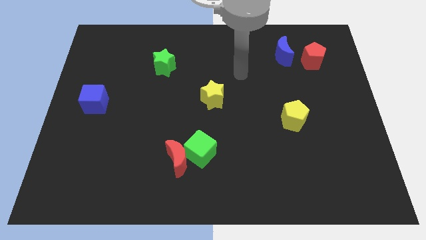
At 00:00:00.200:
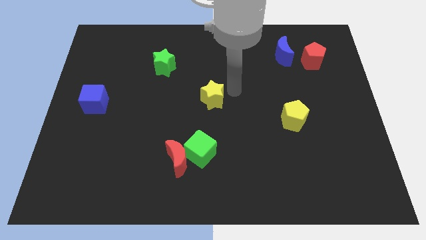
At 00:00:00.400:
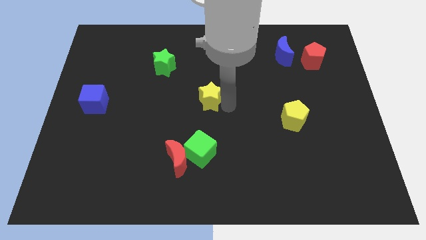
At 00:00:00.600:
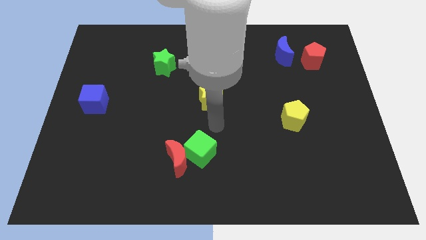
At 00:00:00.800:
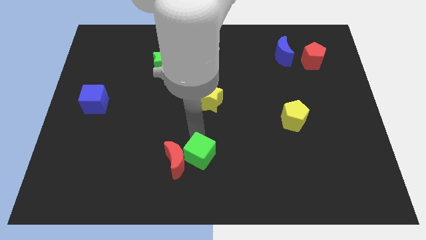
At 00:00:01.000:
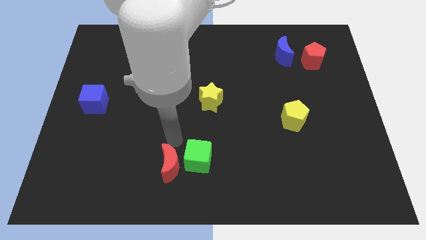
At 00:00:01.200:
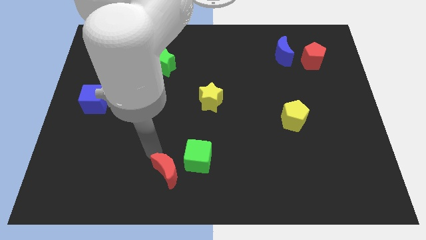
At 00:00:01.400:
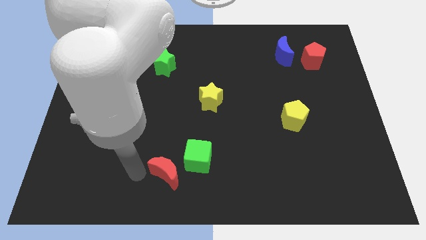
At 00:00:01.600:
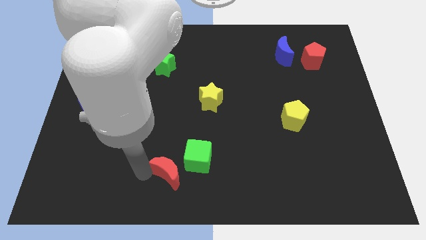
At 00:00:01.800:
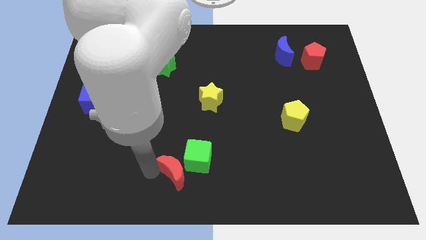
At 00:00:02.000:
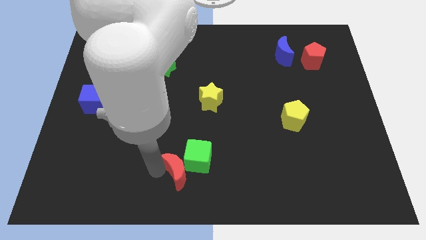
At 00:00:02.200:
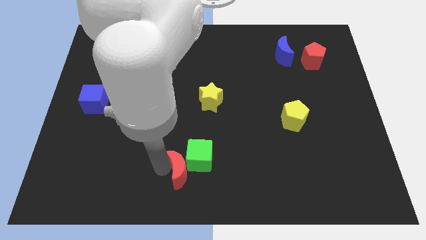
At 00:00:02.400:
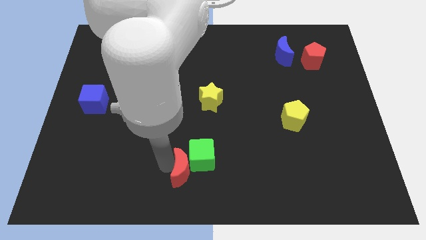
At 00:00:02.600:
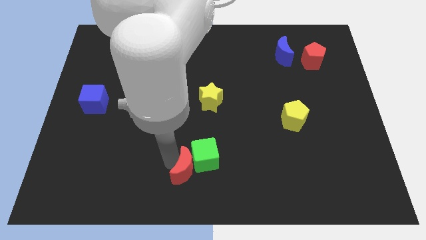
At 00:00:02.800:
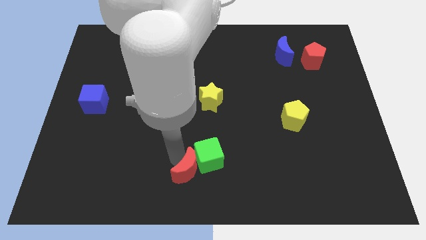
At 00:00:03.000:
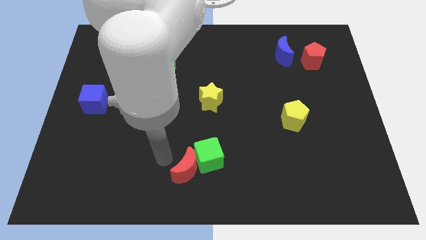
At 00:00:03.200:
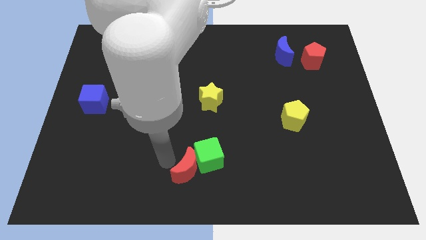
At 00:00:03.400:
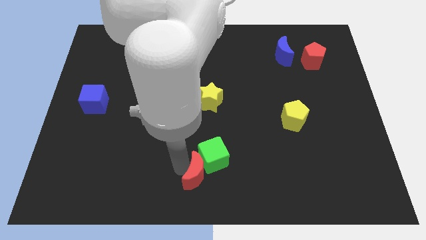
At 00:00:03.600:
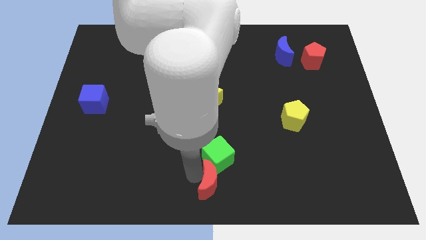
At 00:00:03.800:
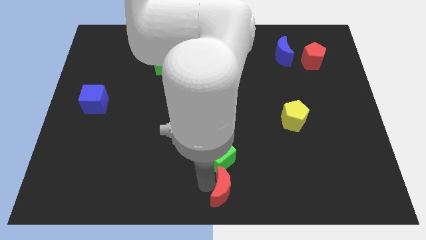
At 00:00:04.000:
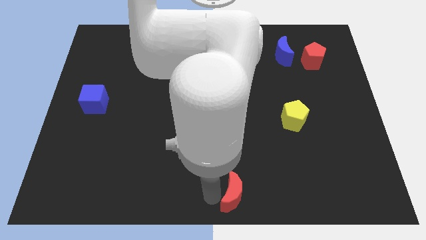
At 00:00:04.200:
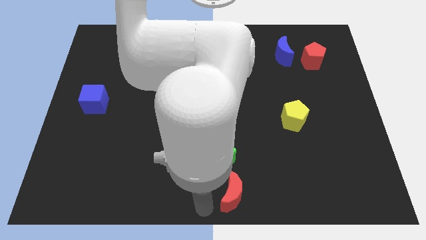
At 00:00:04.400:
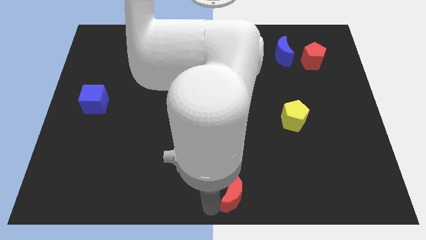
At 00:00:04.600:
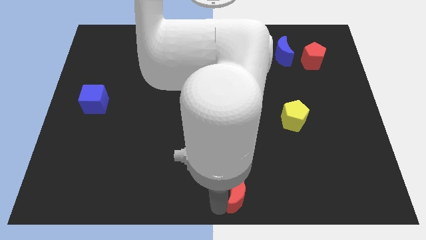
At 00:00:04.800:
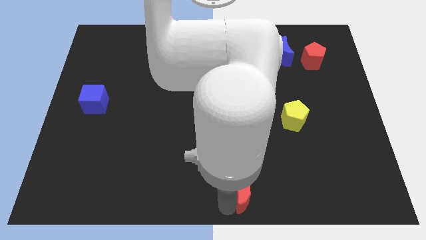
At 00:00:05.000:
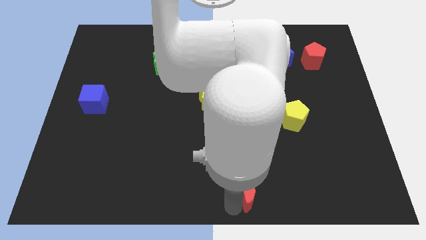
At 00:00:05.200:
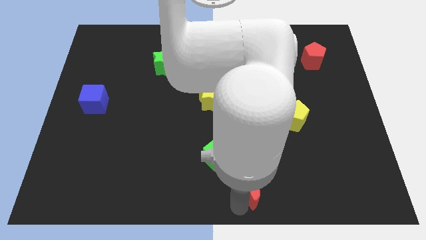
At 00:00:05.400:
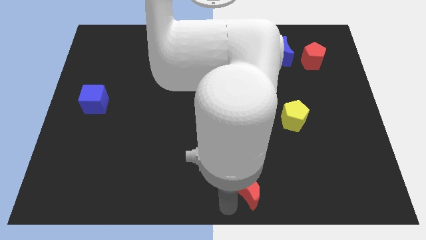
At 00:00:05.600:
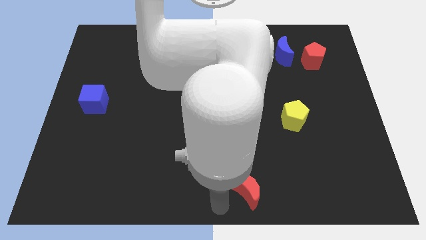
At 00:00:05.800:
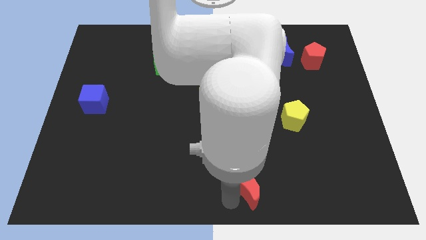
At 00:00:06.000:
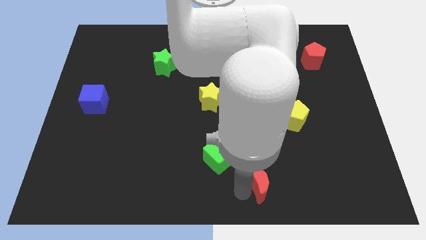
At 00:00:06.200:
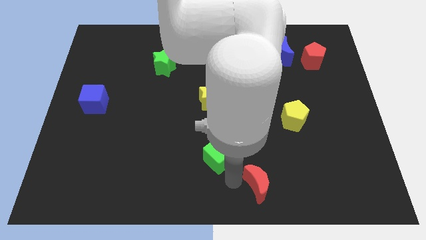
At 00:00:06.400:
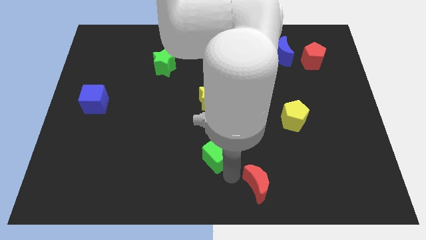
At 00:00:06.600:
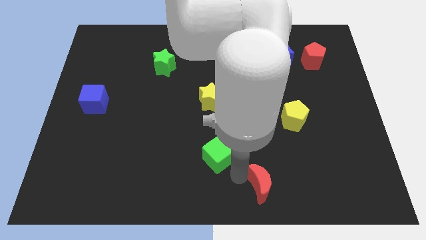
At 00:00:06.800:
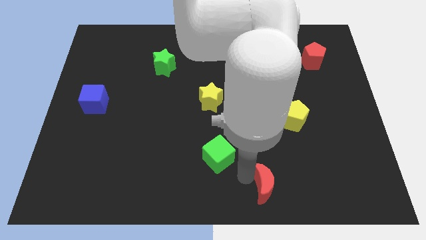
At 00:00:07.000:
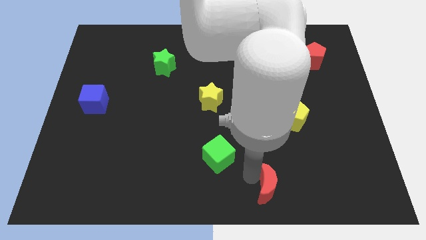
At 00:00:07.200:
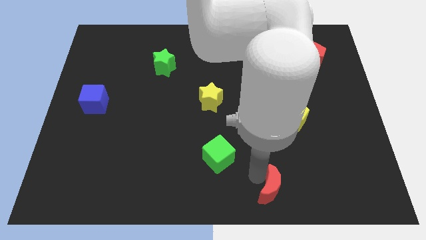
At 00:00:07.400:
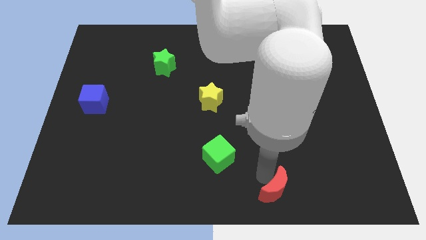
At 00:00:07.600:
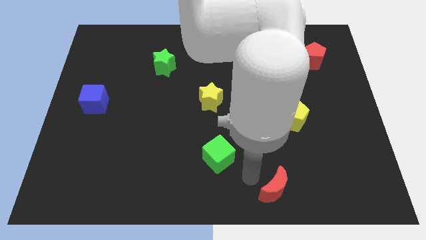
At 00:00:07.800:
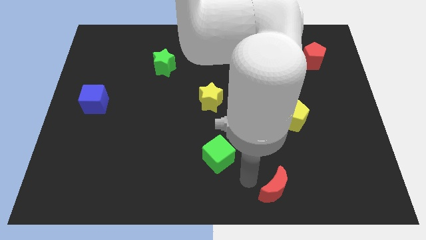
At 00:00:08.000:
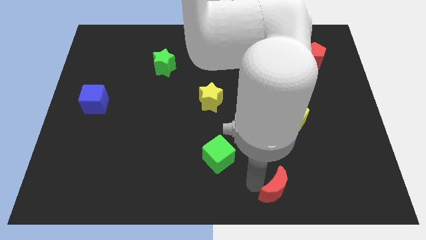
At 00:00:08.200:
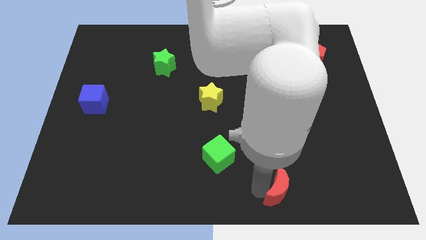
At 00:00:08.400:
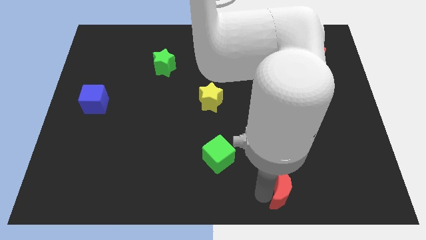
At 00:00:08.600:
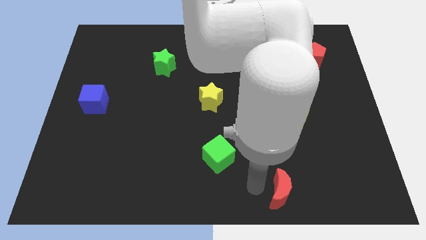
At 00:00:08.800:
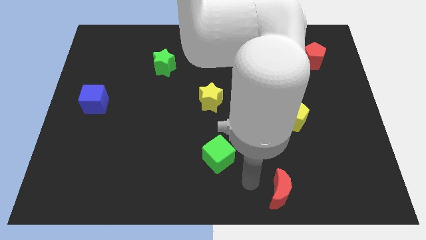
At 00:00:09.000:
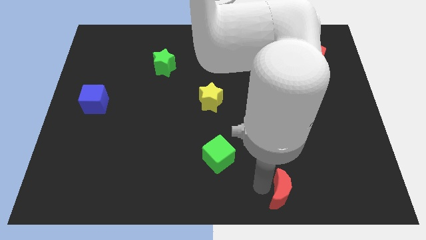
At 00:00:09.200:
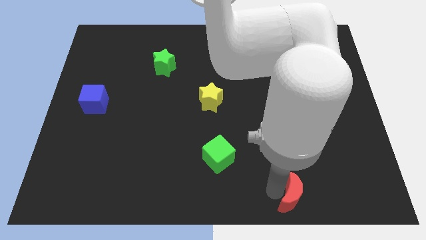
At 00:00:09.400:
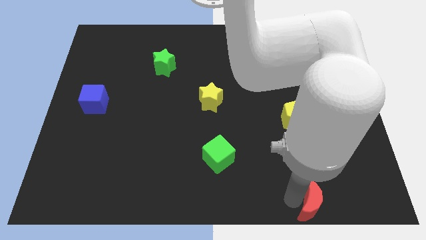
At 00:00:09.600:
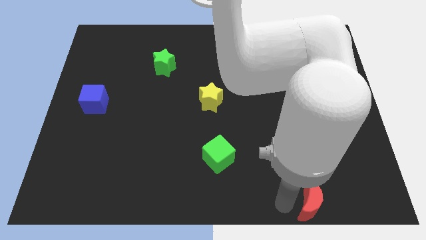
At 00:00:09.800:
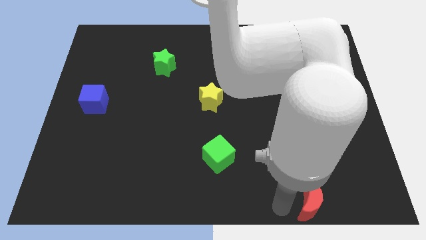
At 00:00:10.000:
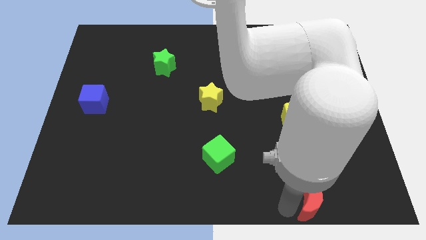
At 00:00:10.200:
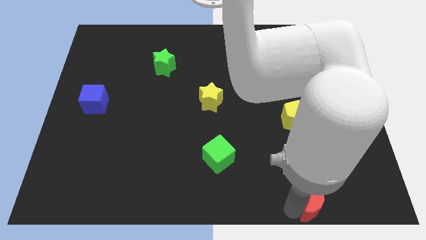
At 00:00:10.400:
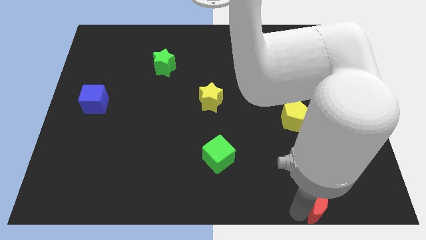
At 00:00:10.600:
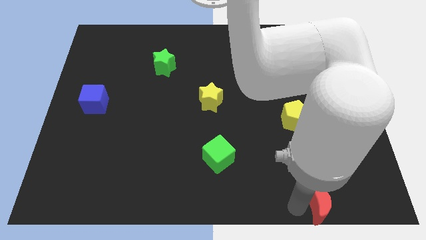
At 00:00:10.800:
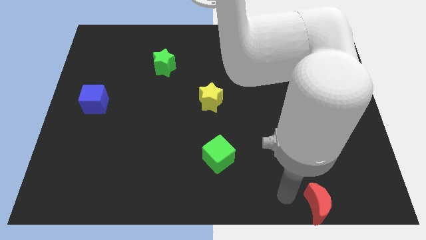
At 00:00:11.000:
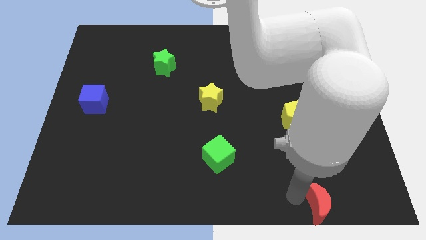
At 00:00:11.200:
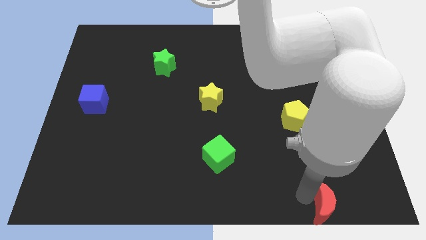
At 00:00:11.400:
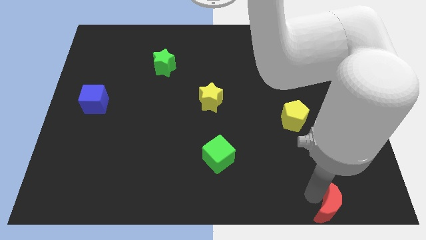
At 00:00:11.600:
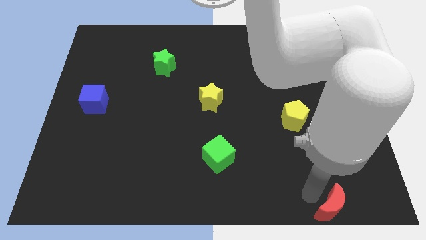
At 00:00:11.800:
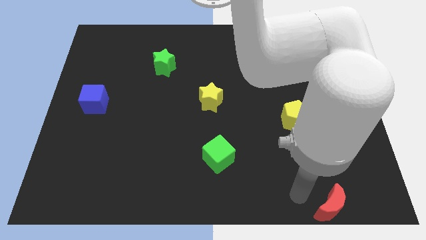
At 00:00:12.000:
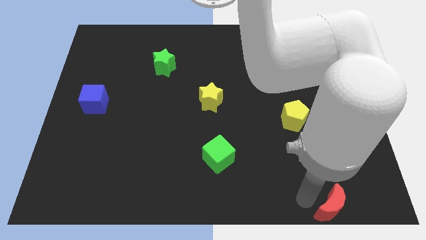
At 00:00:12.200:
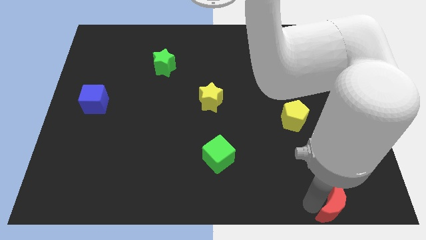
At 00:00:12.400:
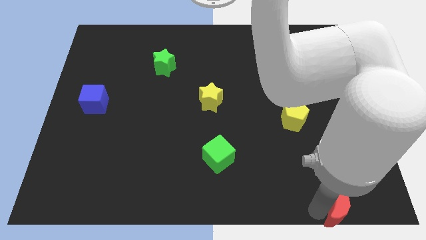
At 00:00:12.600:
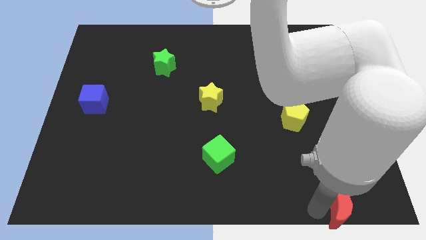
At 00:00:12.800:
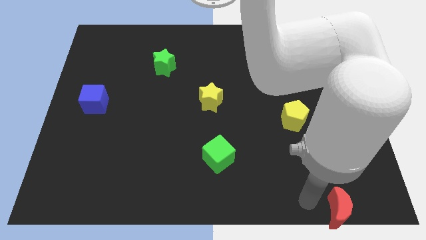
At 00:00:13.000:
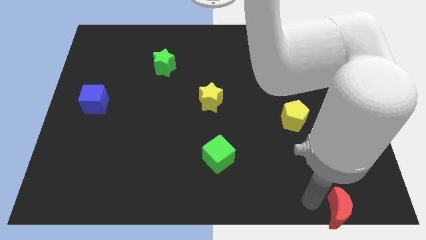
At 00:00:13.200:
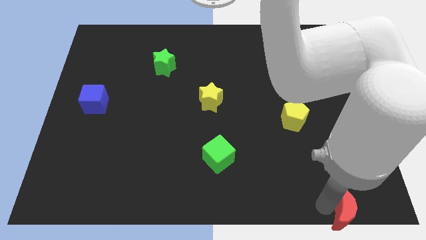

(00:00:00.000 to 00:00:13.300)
push the red moon to the bottom right
